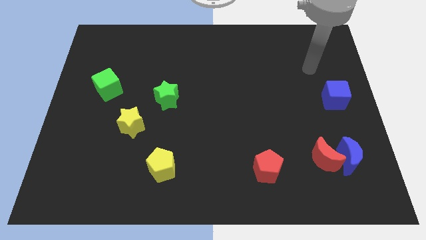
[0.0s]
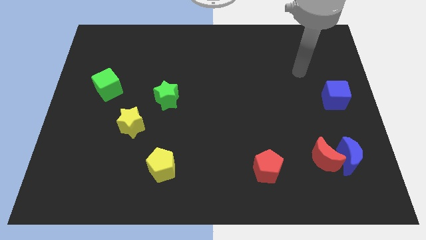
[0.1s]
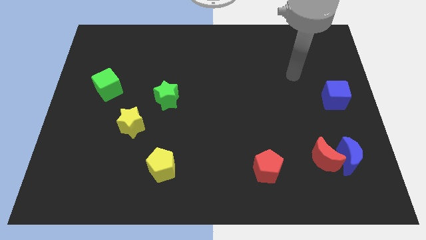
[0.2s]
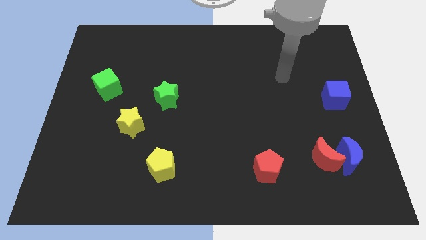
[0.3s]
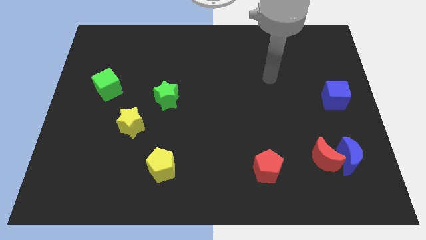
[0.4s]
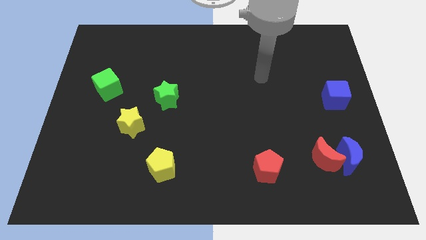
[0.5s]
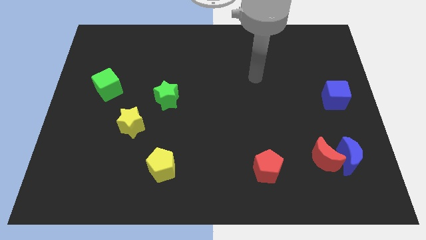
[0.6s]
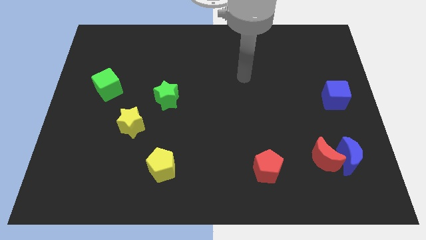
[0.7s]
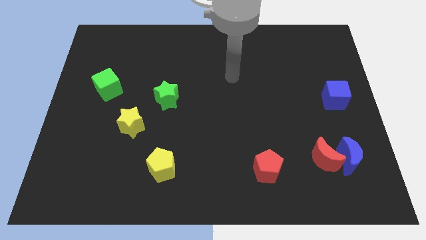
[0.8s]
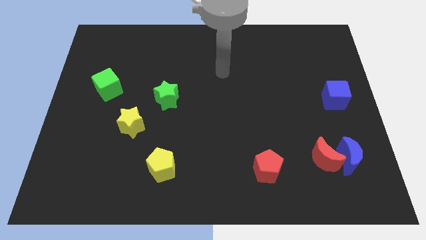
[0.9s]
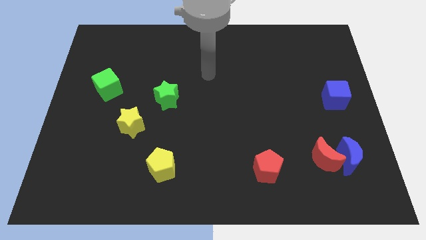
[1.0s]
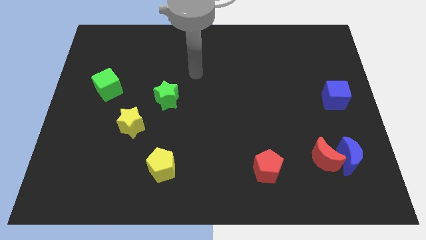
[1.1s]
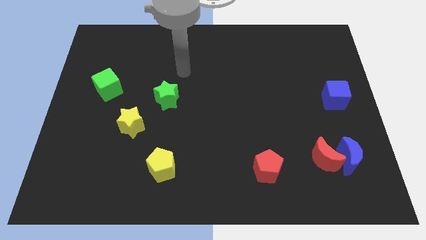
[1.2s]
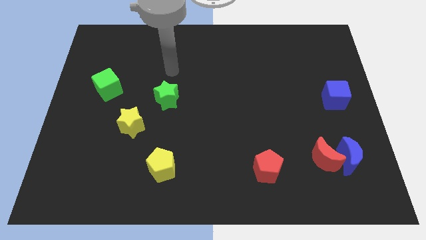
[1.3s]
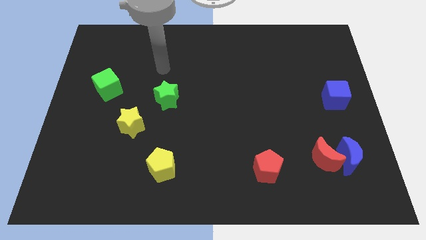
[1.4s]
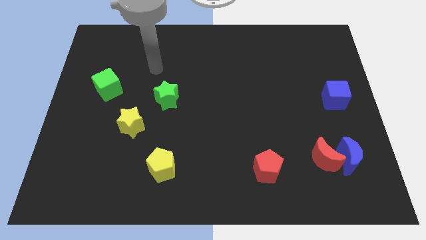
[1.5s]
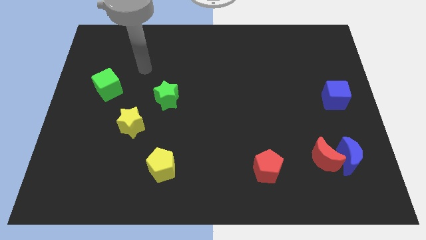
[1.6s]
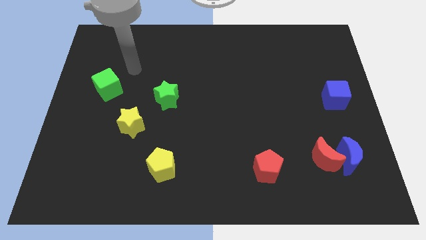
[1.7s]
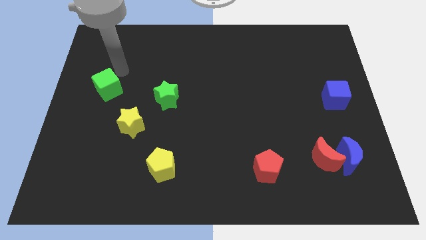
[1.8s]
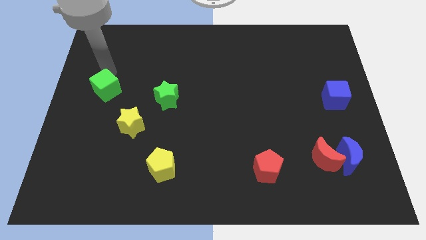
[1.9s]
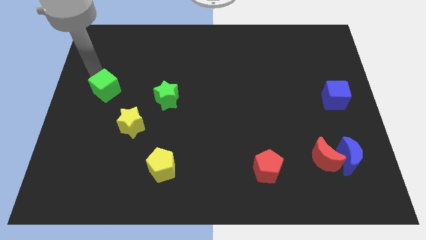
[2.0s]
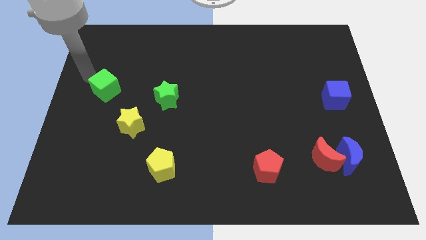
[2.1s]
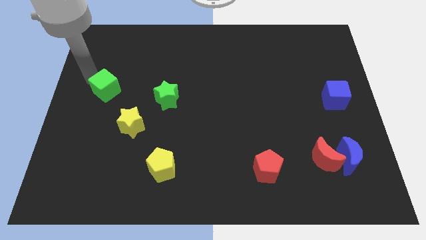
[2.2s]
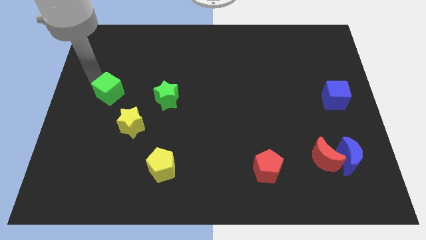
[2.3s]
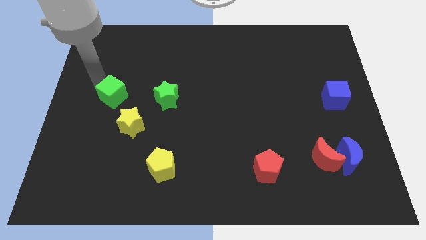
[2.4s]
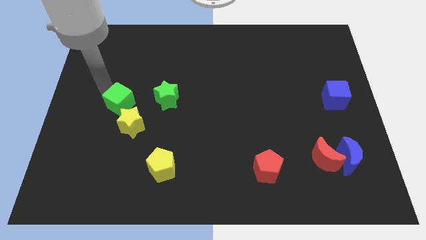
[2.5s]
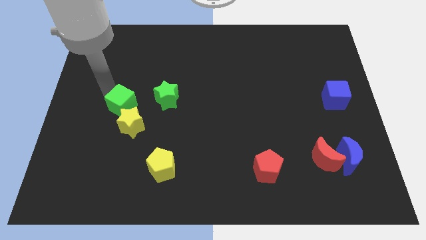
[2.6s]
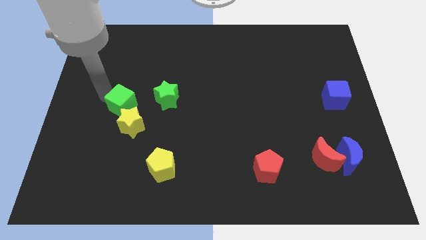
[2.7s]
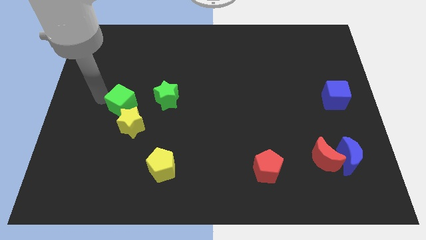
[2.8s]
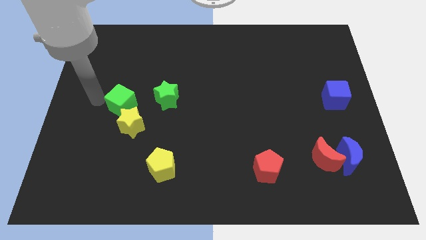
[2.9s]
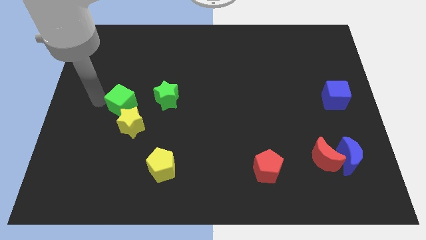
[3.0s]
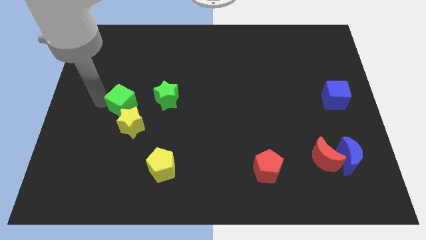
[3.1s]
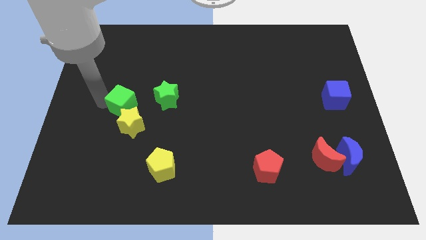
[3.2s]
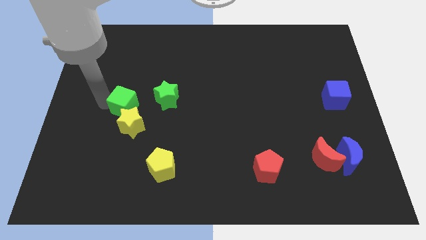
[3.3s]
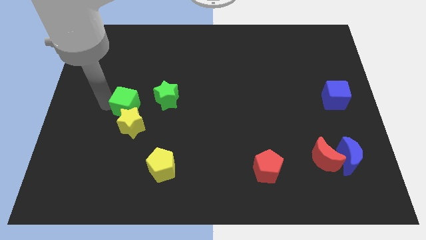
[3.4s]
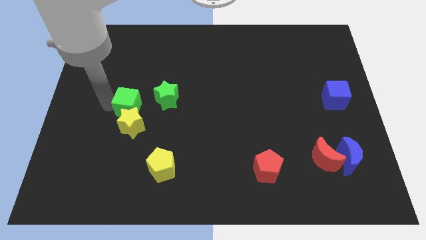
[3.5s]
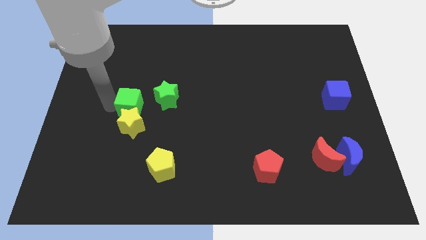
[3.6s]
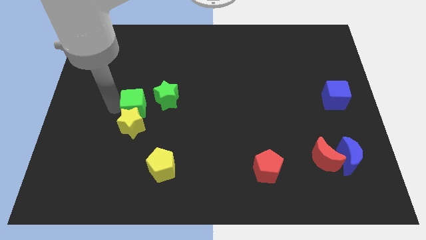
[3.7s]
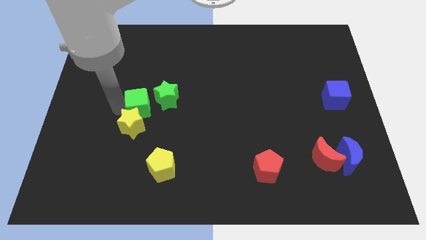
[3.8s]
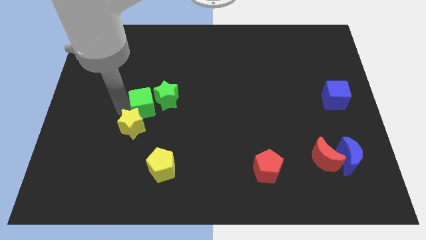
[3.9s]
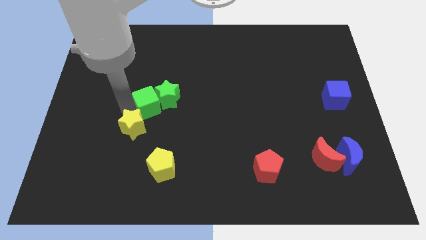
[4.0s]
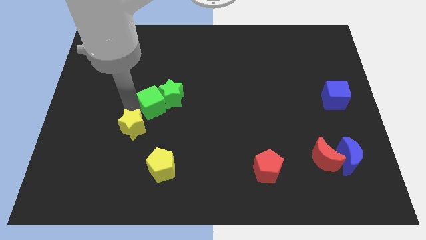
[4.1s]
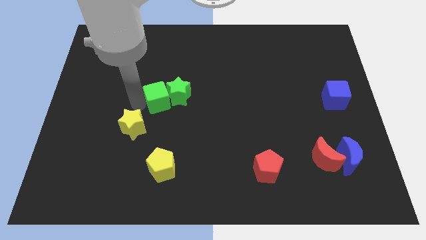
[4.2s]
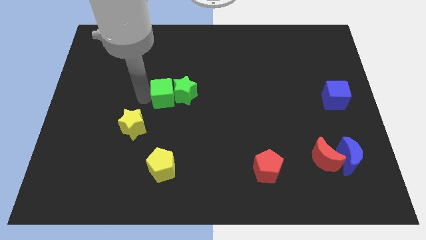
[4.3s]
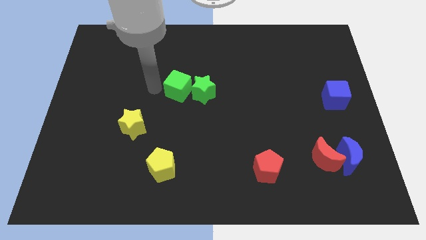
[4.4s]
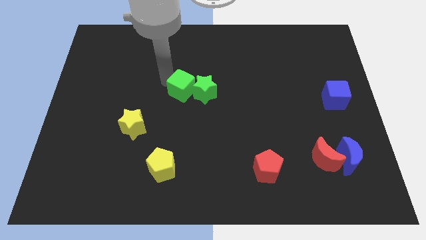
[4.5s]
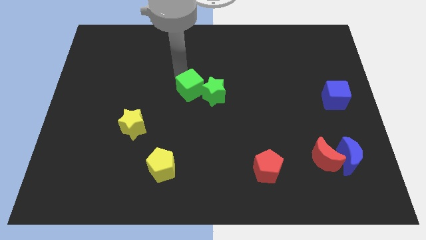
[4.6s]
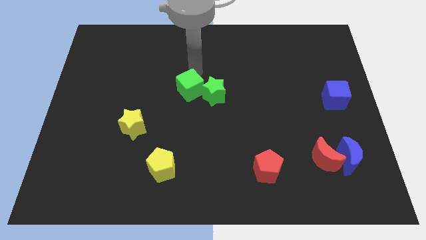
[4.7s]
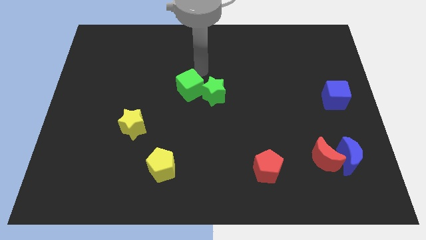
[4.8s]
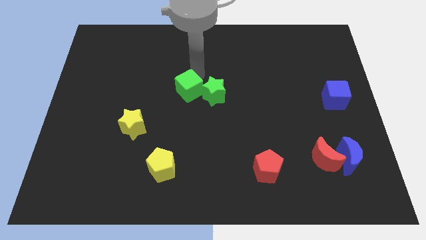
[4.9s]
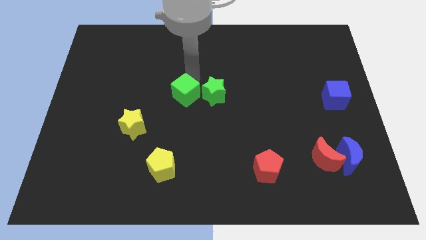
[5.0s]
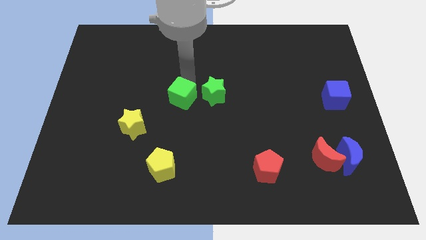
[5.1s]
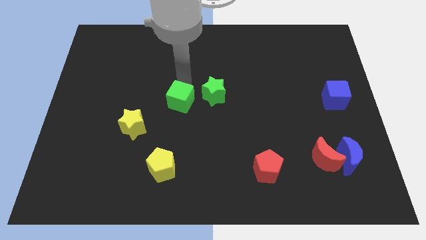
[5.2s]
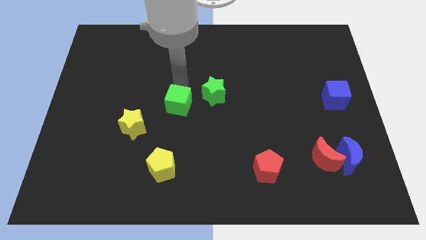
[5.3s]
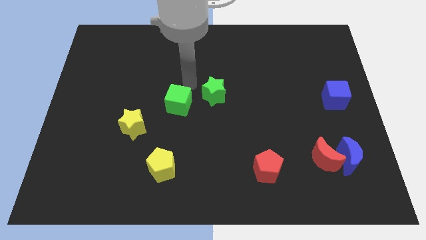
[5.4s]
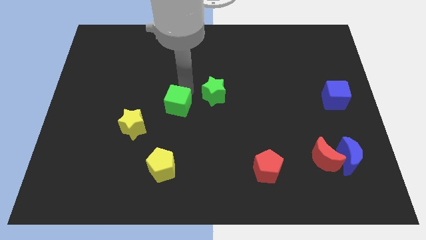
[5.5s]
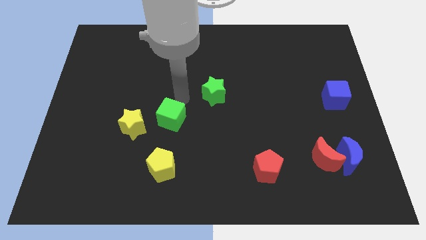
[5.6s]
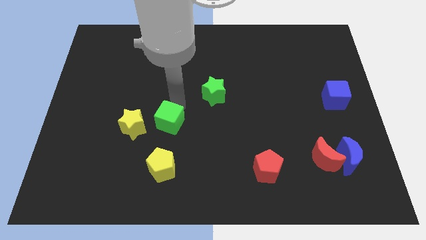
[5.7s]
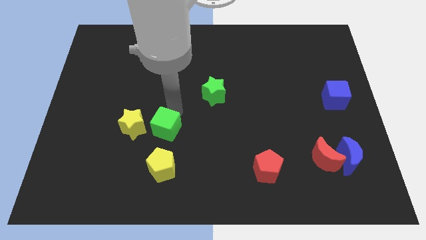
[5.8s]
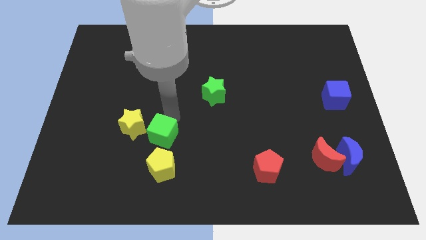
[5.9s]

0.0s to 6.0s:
push the green cube to the bottom right side of the yellow star

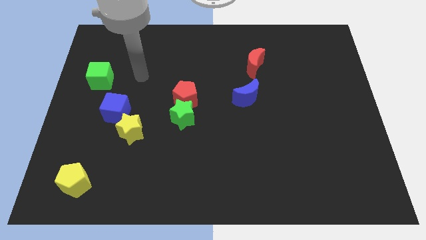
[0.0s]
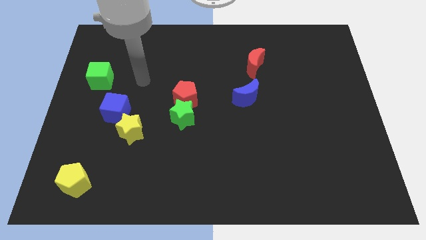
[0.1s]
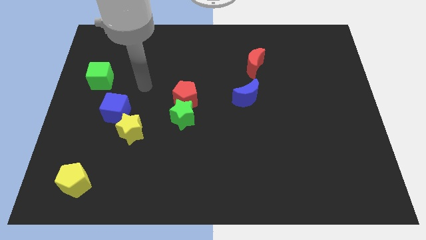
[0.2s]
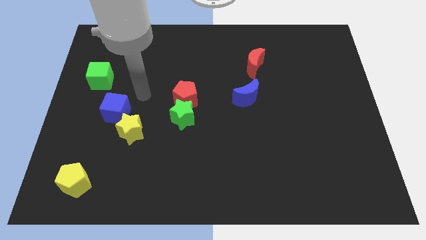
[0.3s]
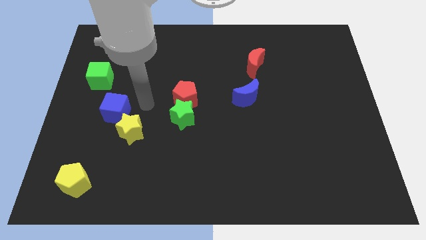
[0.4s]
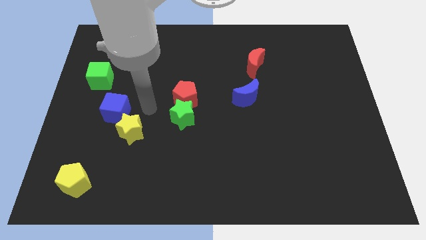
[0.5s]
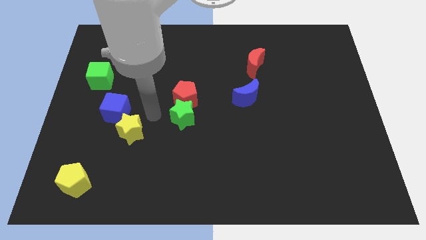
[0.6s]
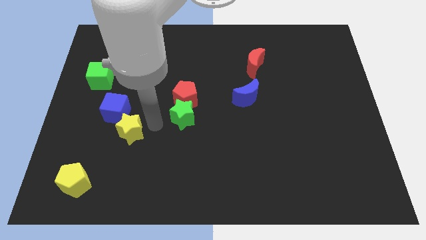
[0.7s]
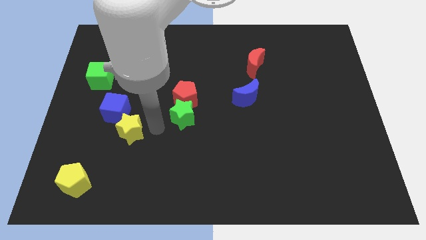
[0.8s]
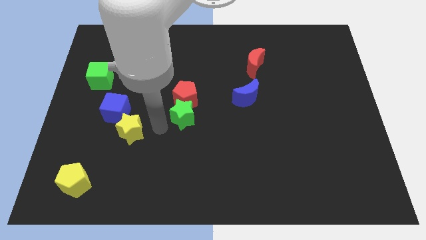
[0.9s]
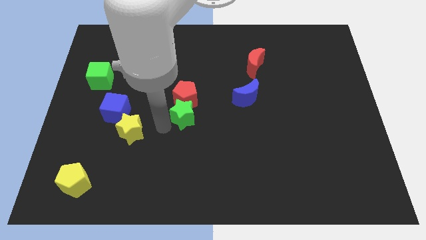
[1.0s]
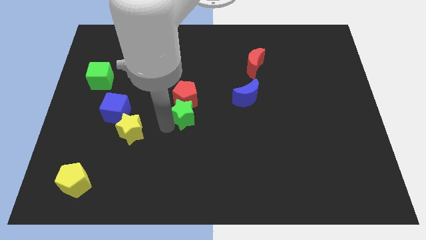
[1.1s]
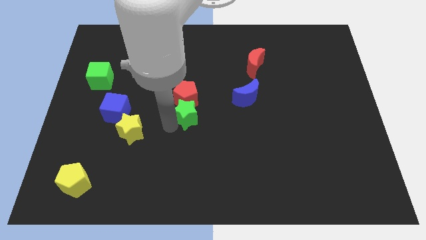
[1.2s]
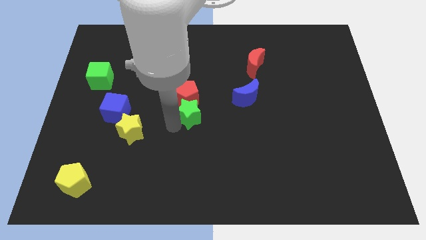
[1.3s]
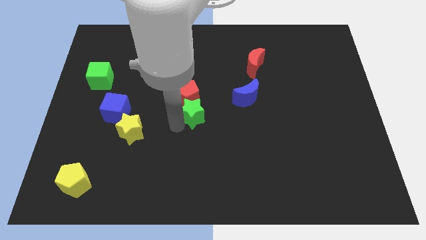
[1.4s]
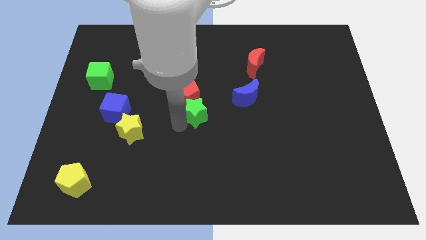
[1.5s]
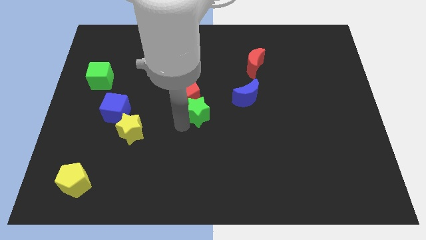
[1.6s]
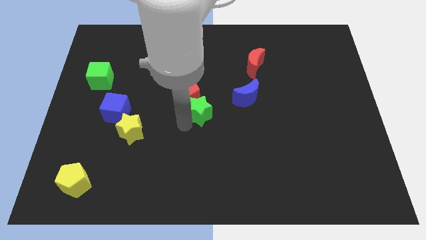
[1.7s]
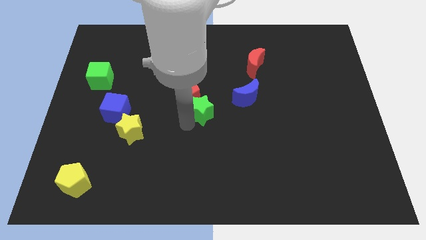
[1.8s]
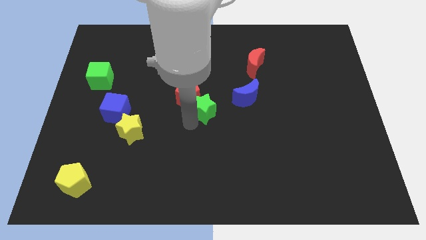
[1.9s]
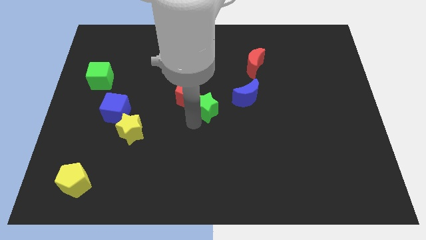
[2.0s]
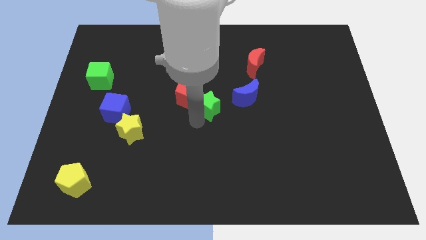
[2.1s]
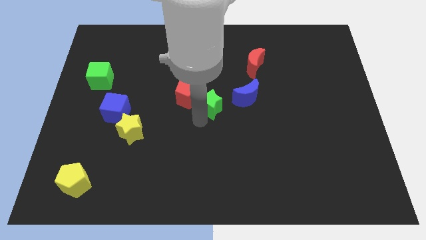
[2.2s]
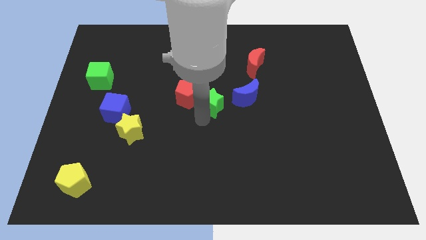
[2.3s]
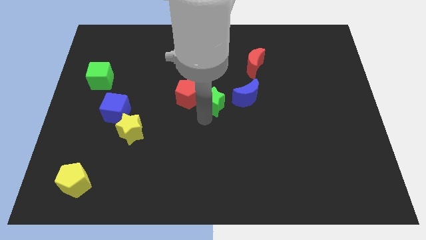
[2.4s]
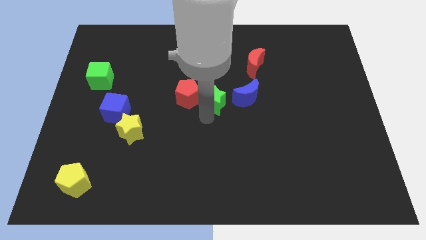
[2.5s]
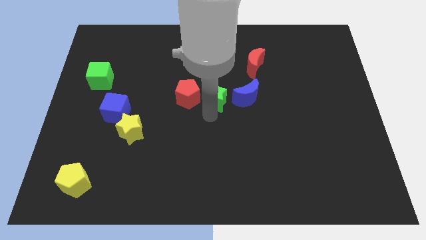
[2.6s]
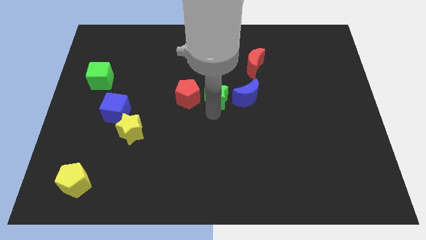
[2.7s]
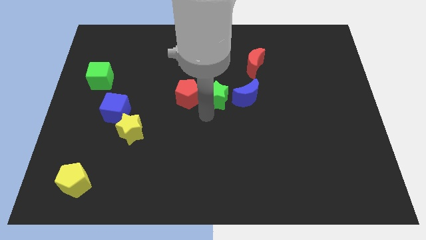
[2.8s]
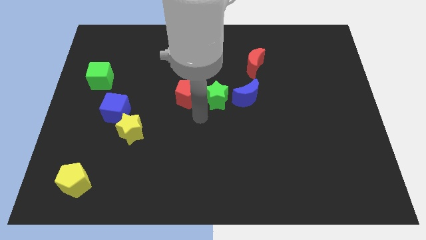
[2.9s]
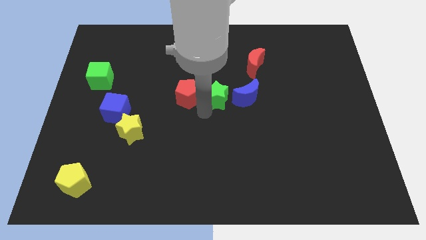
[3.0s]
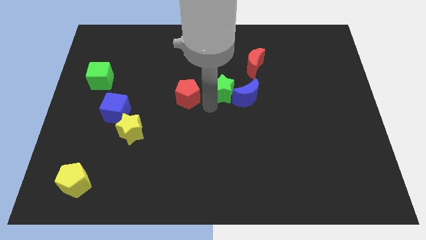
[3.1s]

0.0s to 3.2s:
put the green star to the bottom left of the red moon
